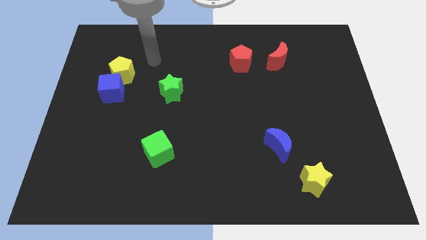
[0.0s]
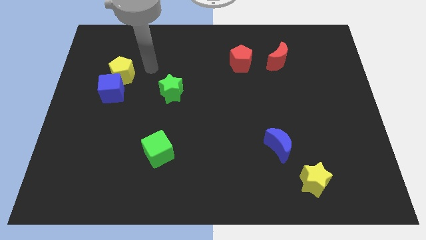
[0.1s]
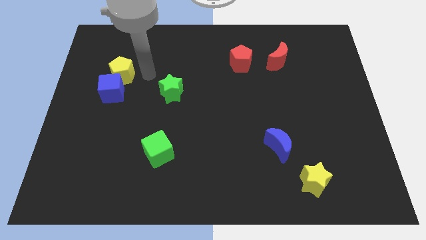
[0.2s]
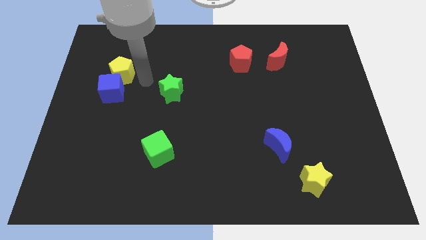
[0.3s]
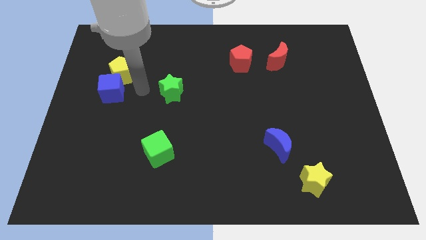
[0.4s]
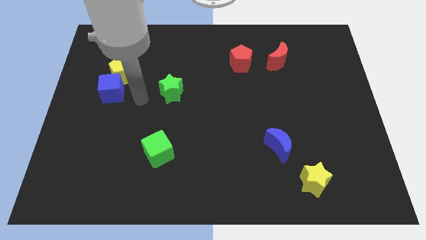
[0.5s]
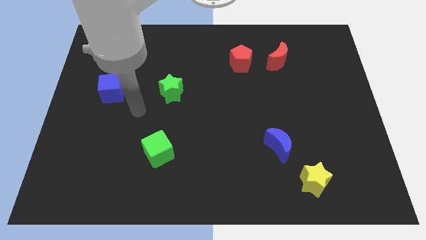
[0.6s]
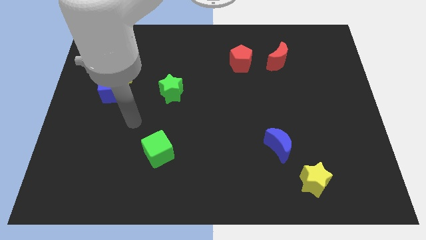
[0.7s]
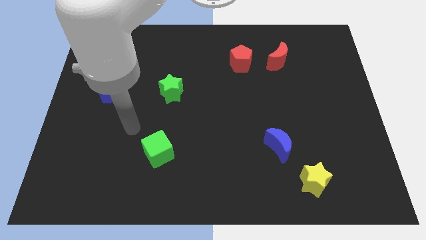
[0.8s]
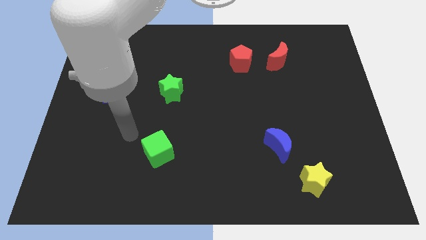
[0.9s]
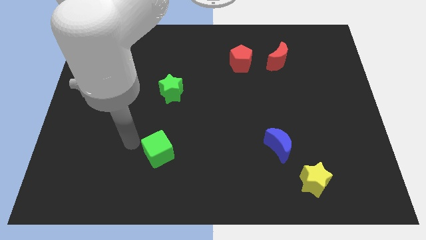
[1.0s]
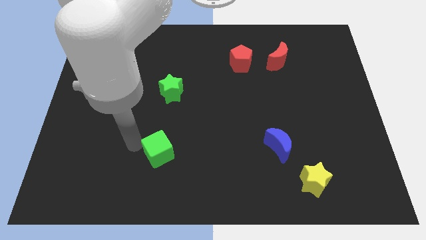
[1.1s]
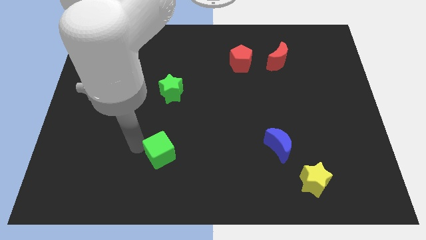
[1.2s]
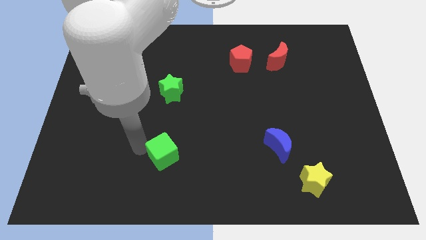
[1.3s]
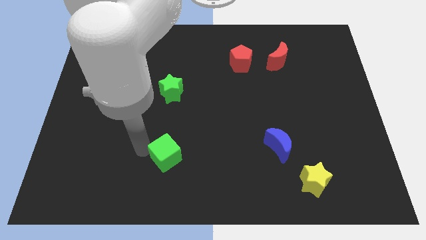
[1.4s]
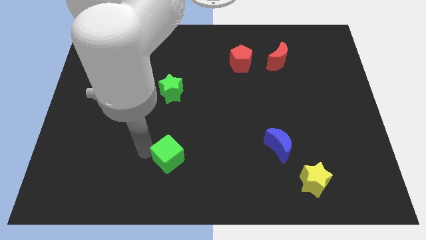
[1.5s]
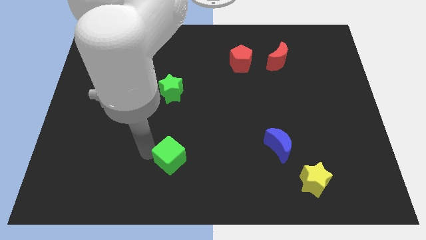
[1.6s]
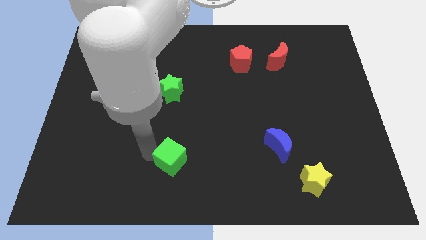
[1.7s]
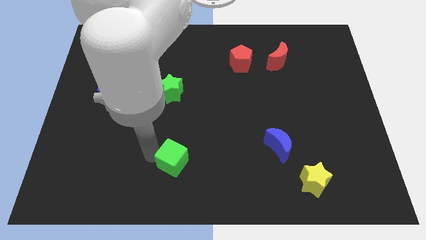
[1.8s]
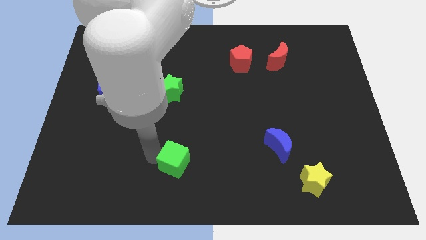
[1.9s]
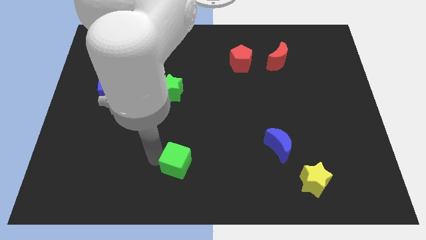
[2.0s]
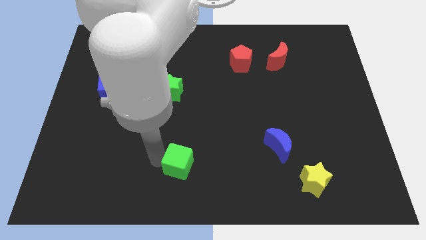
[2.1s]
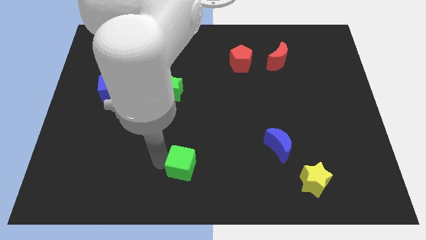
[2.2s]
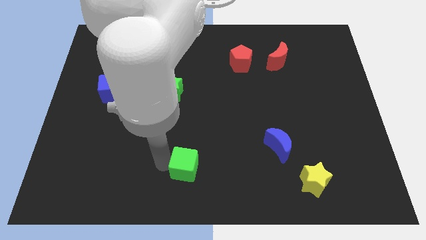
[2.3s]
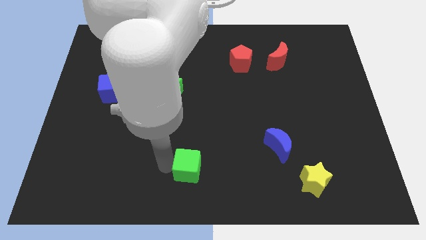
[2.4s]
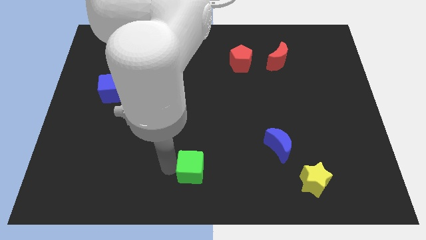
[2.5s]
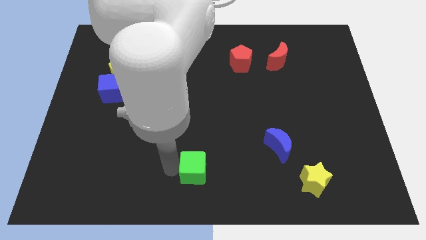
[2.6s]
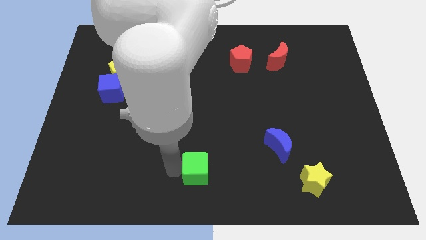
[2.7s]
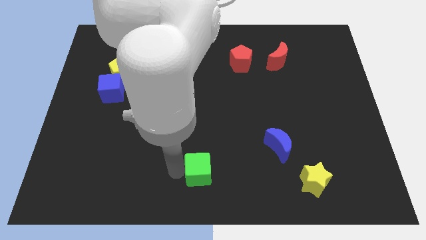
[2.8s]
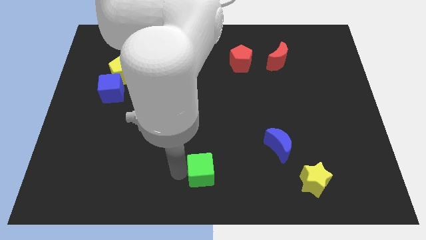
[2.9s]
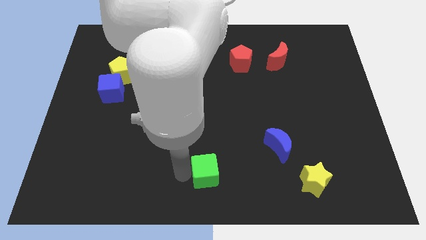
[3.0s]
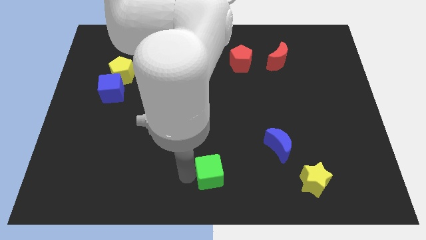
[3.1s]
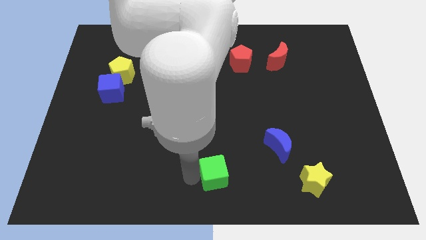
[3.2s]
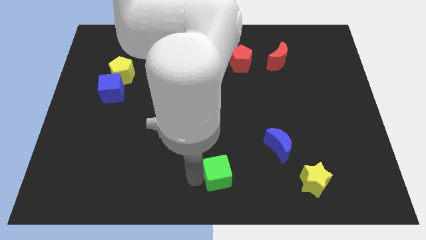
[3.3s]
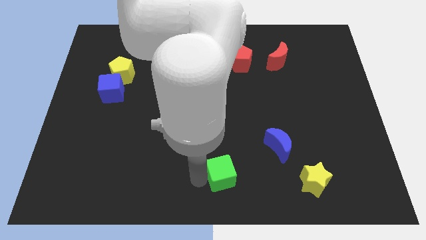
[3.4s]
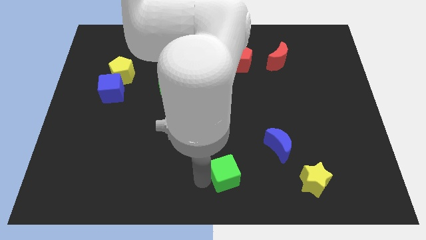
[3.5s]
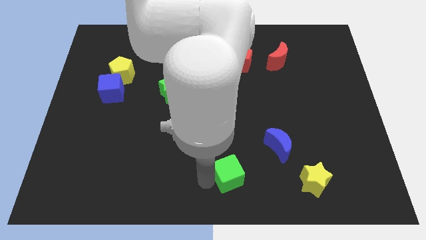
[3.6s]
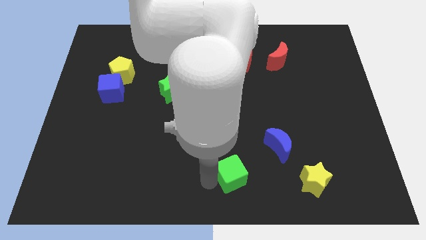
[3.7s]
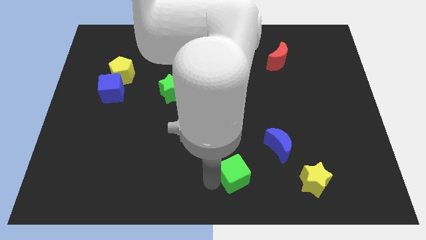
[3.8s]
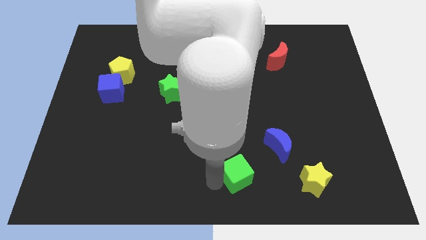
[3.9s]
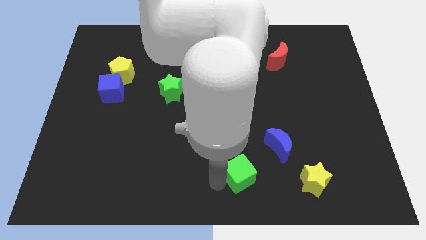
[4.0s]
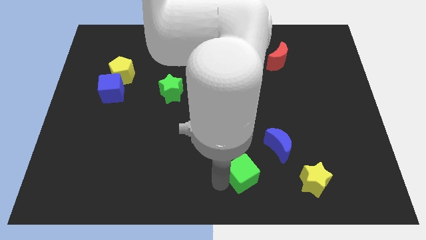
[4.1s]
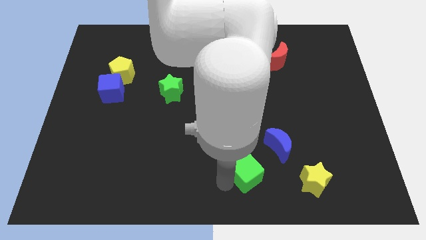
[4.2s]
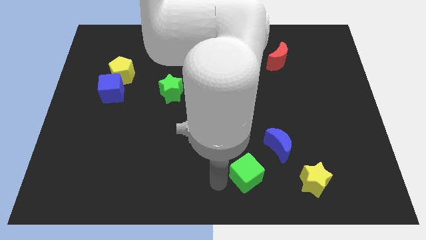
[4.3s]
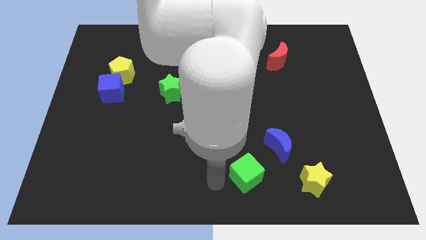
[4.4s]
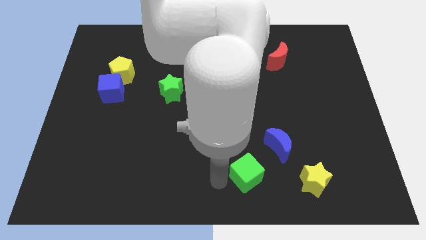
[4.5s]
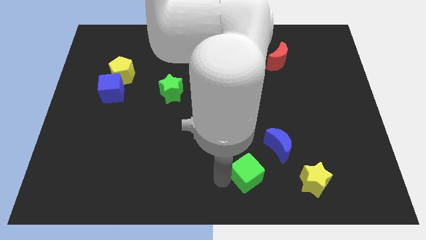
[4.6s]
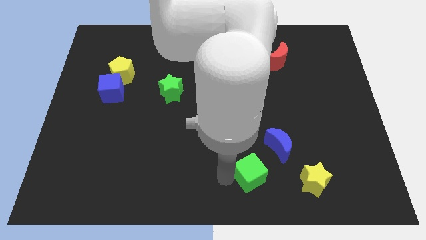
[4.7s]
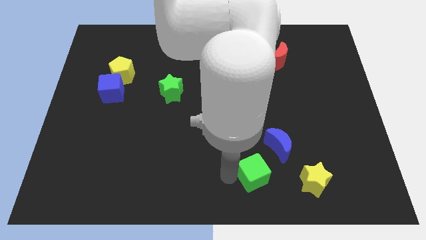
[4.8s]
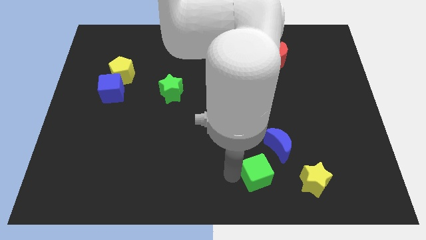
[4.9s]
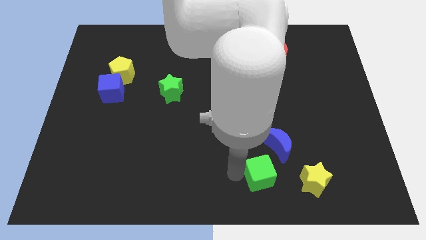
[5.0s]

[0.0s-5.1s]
move the green cube to the right

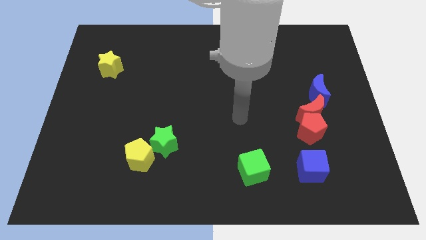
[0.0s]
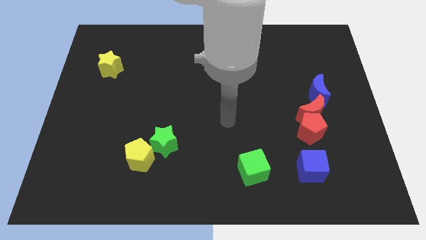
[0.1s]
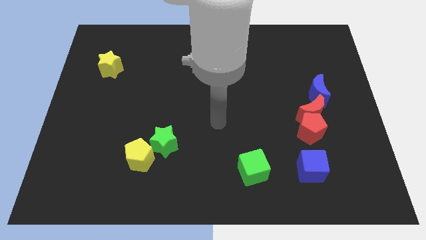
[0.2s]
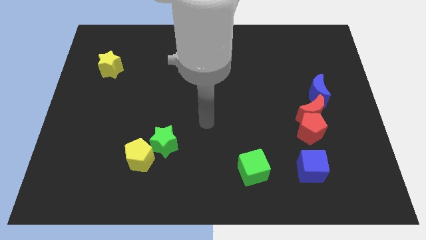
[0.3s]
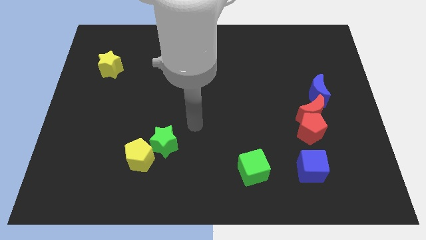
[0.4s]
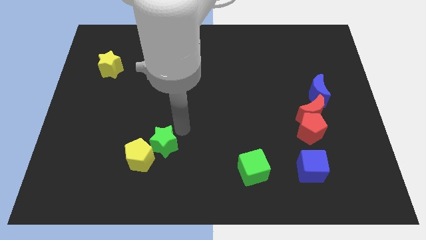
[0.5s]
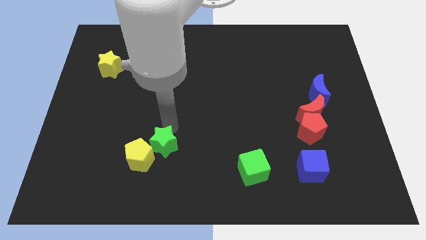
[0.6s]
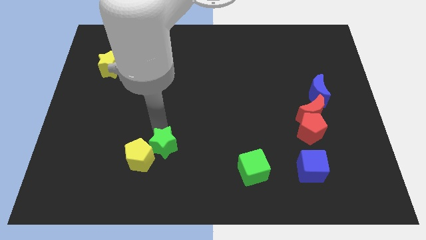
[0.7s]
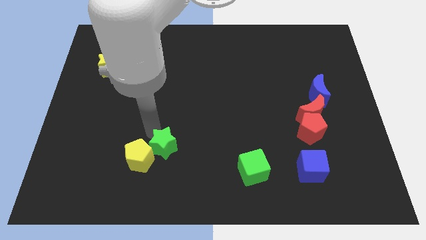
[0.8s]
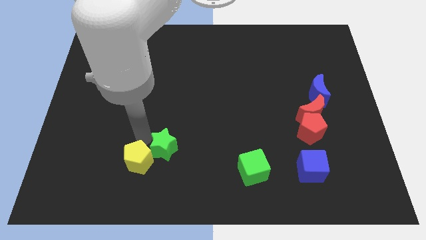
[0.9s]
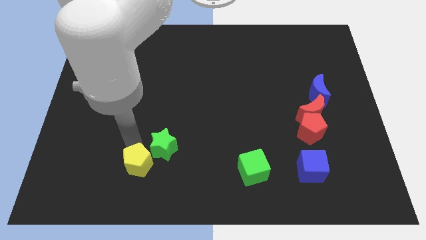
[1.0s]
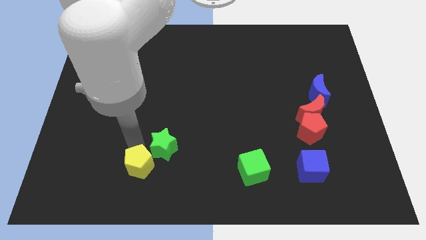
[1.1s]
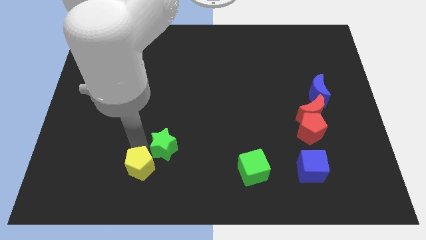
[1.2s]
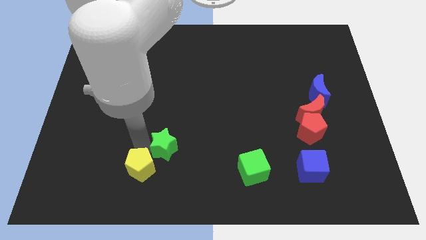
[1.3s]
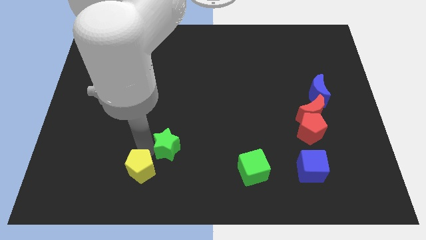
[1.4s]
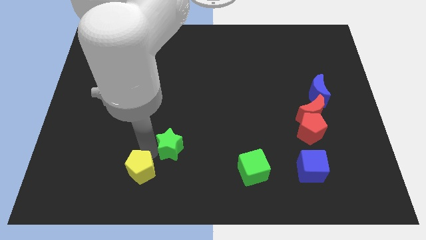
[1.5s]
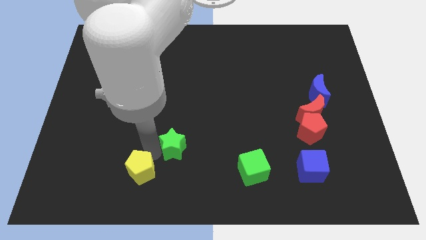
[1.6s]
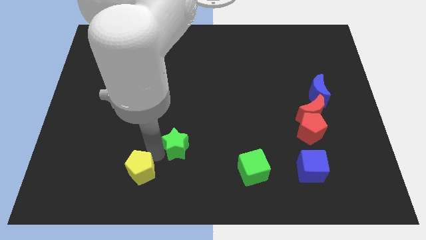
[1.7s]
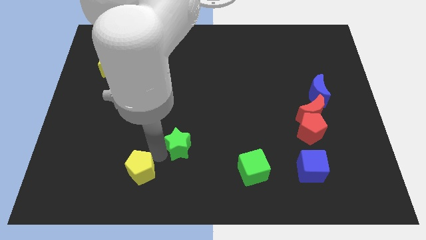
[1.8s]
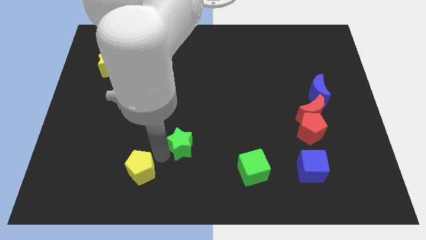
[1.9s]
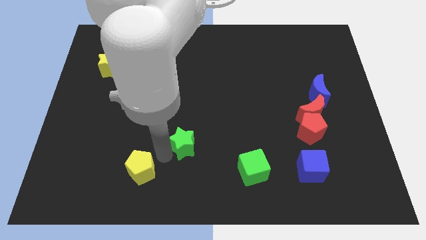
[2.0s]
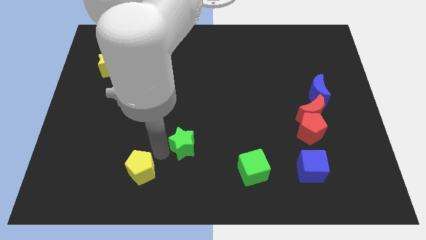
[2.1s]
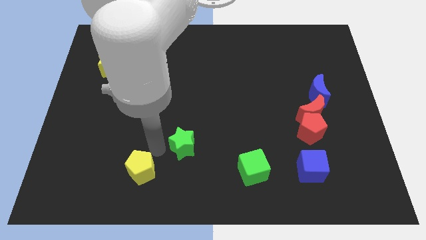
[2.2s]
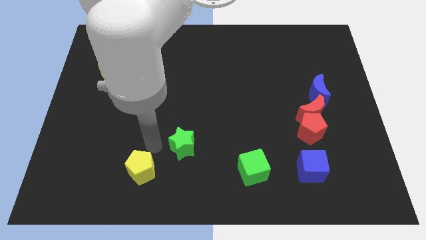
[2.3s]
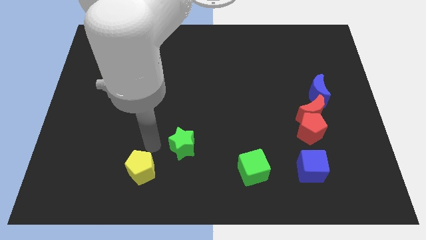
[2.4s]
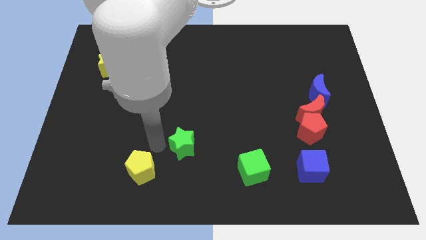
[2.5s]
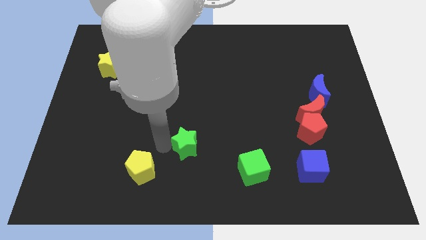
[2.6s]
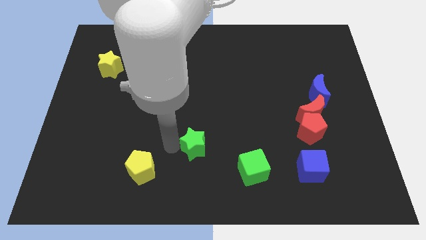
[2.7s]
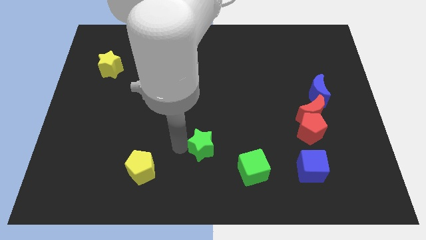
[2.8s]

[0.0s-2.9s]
move the green star a little to the right
